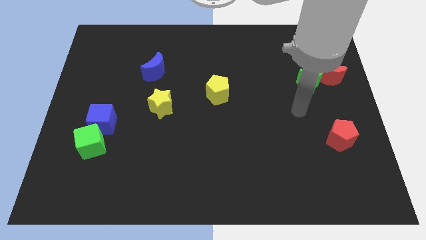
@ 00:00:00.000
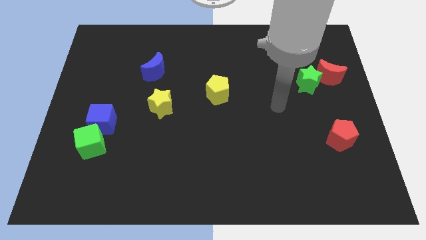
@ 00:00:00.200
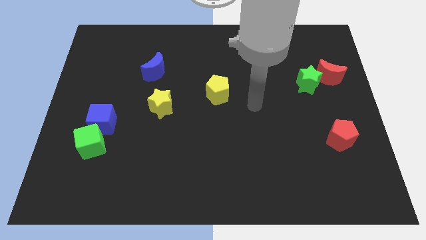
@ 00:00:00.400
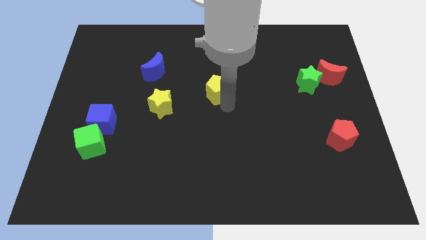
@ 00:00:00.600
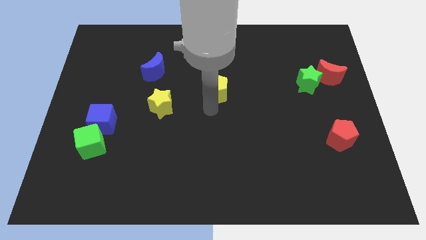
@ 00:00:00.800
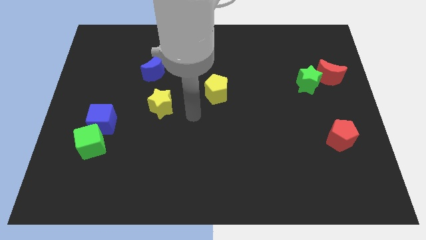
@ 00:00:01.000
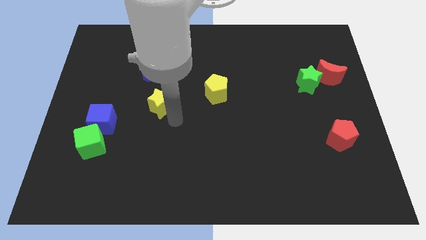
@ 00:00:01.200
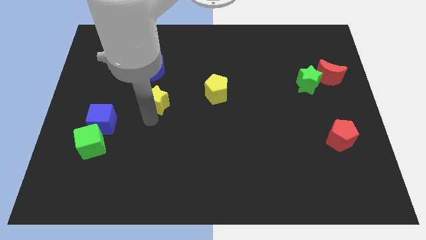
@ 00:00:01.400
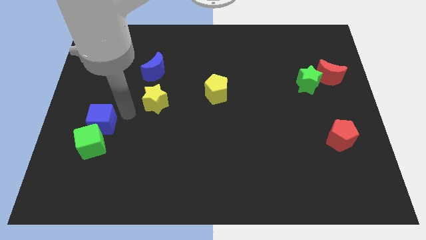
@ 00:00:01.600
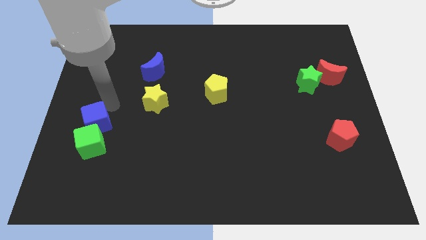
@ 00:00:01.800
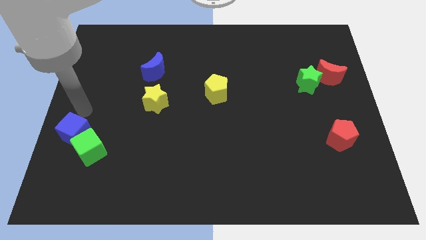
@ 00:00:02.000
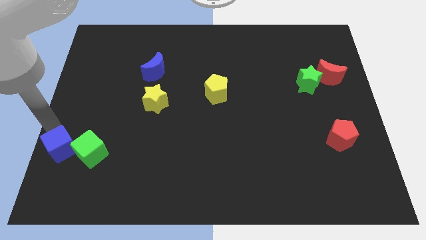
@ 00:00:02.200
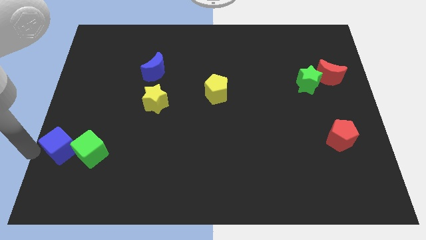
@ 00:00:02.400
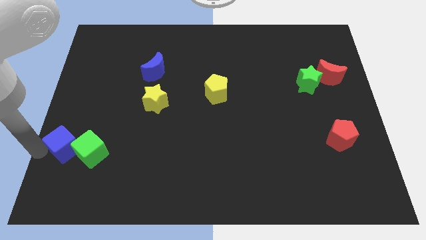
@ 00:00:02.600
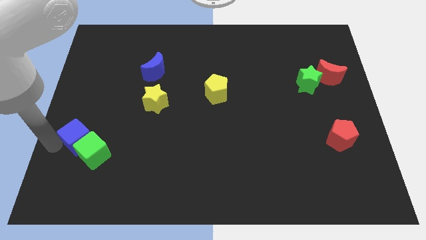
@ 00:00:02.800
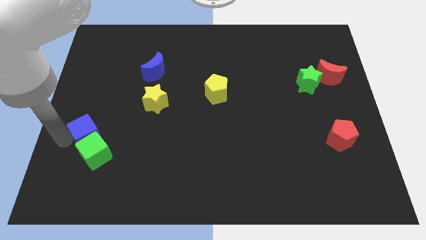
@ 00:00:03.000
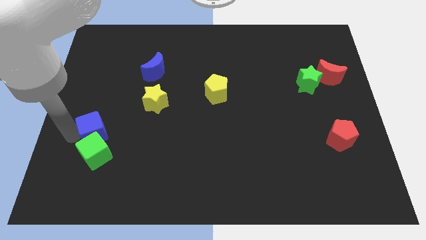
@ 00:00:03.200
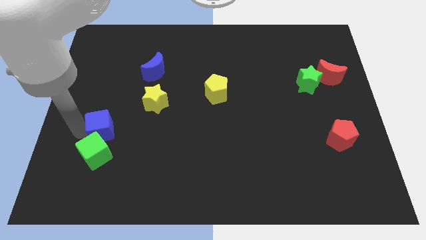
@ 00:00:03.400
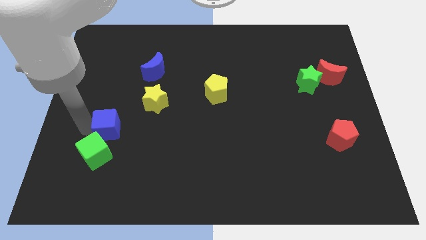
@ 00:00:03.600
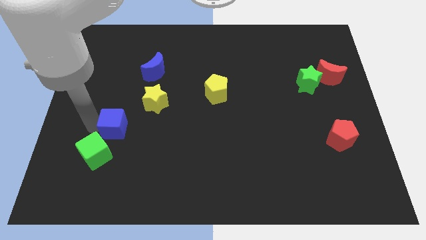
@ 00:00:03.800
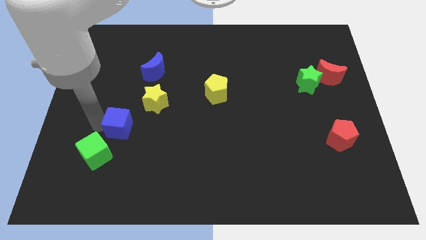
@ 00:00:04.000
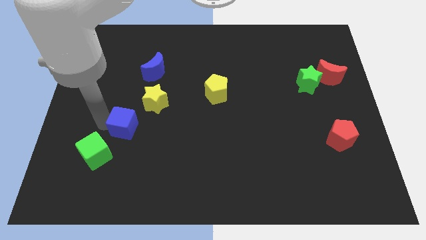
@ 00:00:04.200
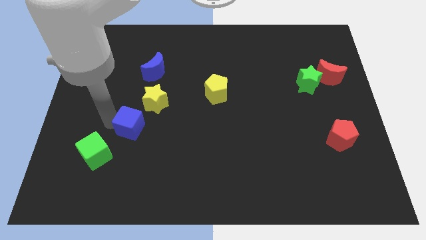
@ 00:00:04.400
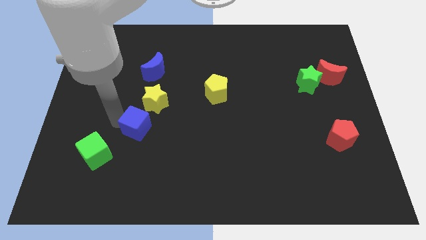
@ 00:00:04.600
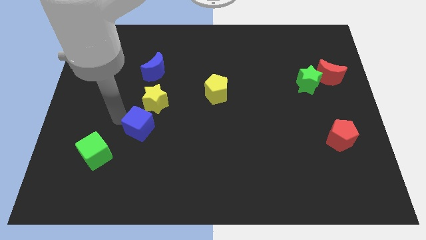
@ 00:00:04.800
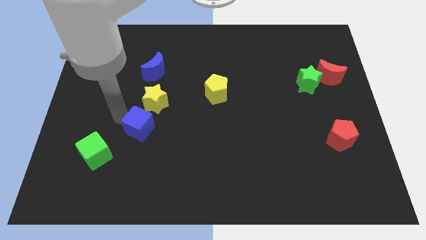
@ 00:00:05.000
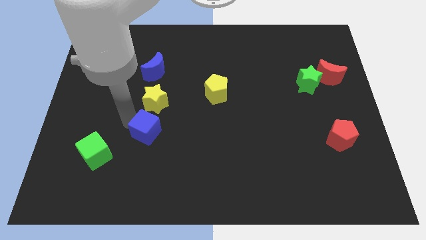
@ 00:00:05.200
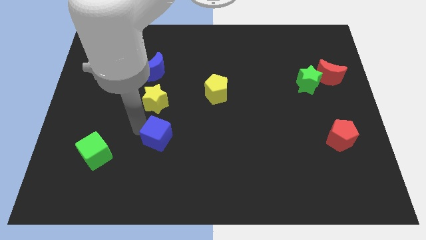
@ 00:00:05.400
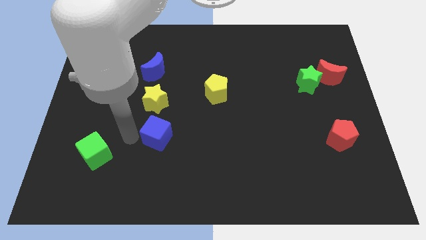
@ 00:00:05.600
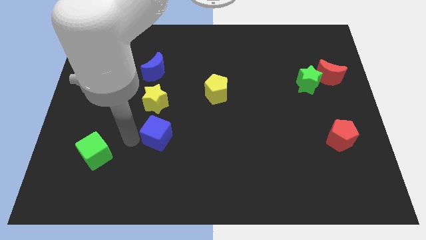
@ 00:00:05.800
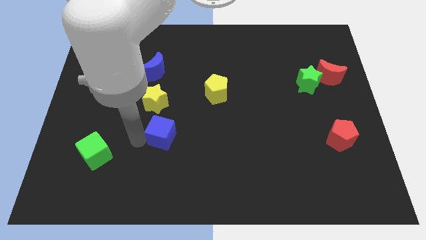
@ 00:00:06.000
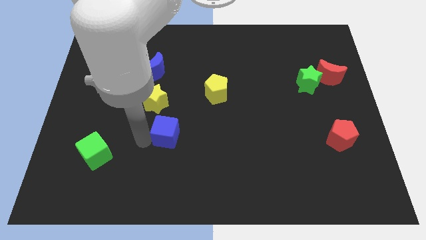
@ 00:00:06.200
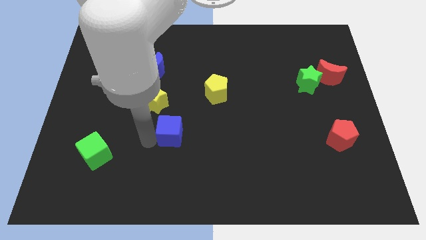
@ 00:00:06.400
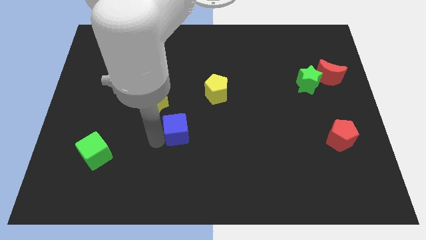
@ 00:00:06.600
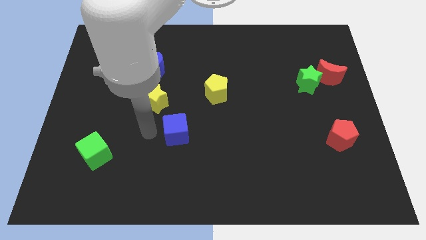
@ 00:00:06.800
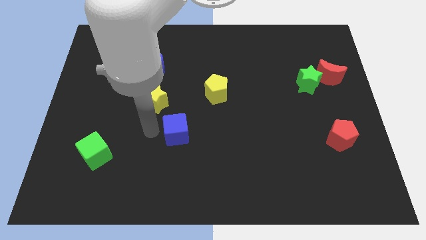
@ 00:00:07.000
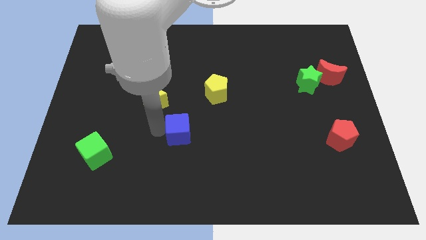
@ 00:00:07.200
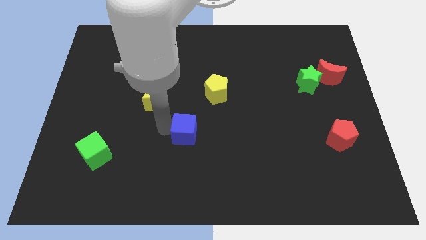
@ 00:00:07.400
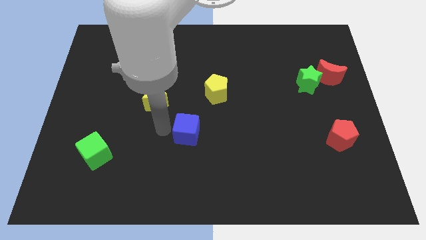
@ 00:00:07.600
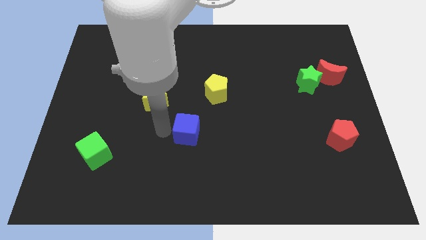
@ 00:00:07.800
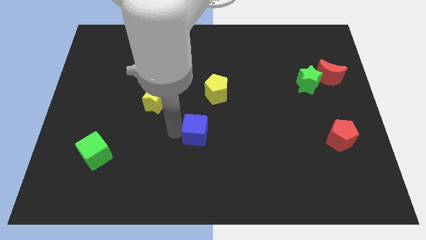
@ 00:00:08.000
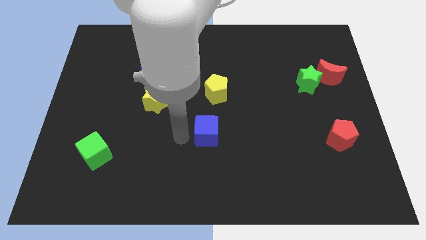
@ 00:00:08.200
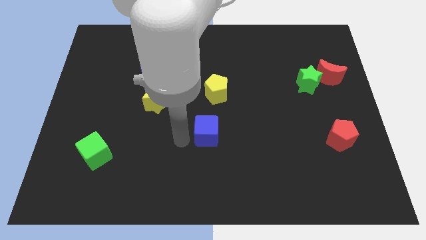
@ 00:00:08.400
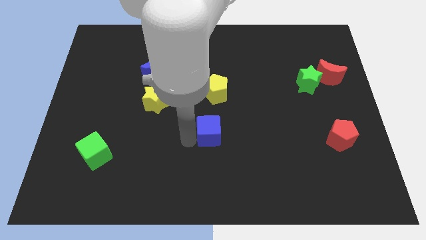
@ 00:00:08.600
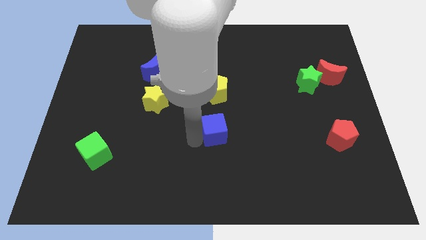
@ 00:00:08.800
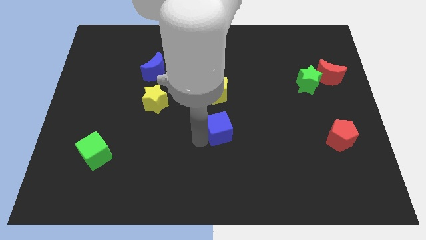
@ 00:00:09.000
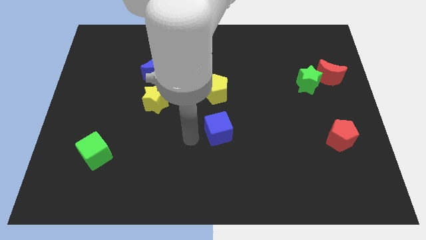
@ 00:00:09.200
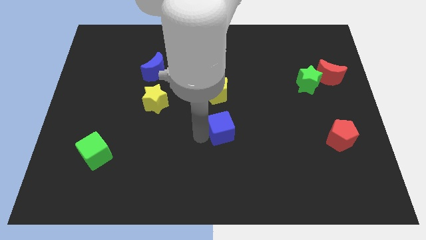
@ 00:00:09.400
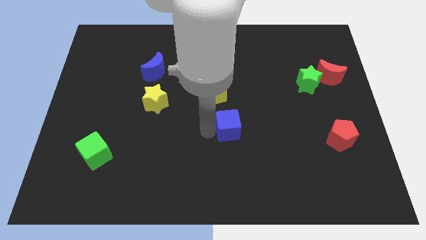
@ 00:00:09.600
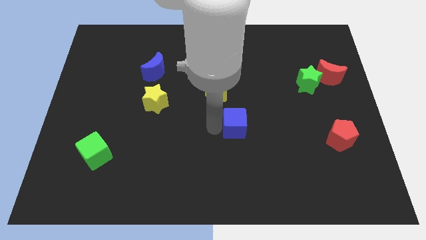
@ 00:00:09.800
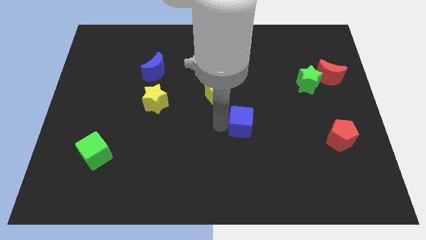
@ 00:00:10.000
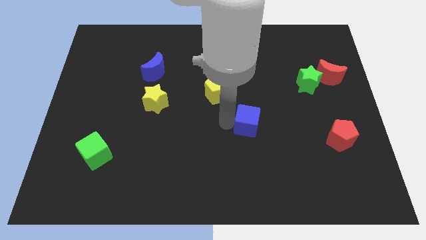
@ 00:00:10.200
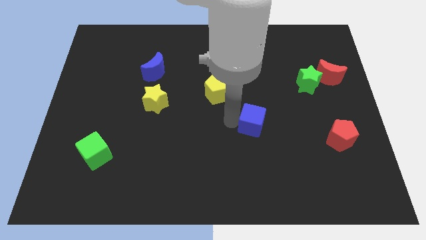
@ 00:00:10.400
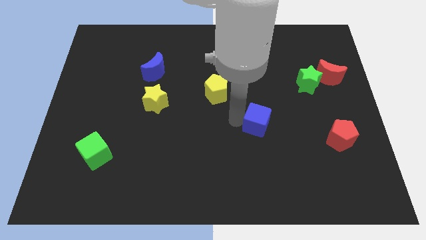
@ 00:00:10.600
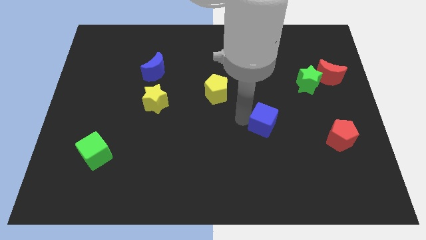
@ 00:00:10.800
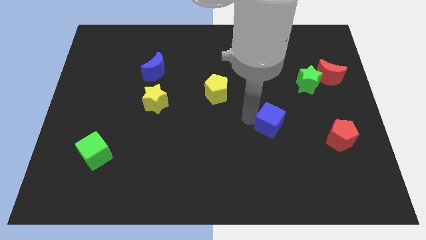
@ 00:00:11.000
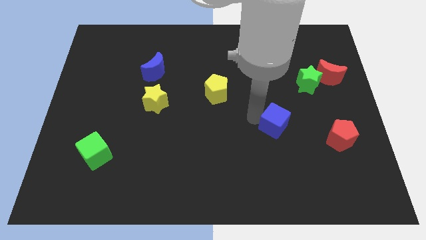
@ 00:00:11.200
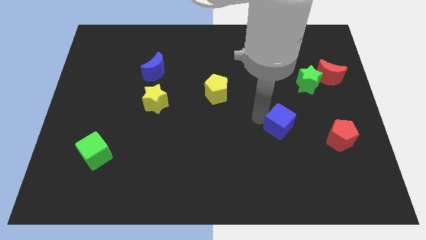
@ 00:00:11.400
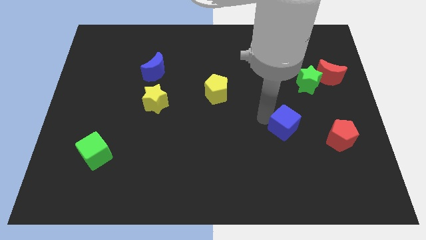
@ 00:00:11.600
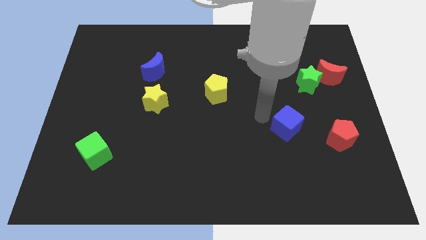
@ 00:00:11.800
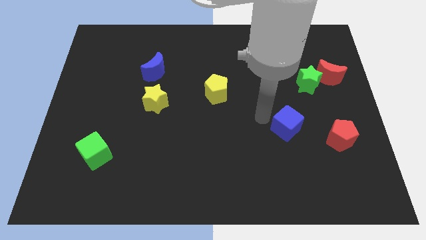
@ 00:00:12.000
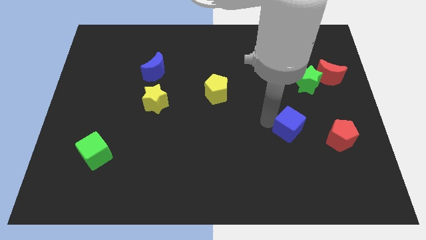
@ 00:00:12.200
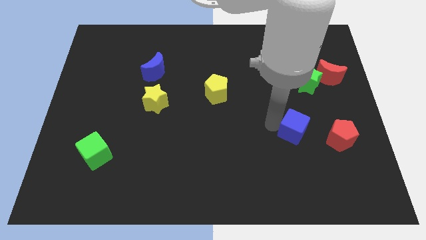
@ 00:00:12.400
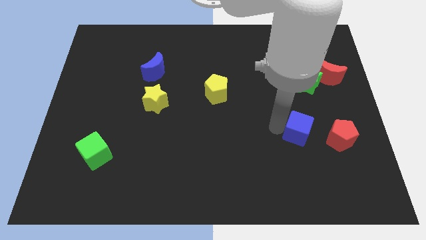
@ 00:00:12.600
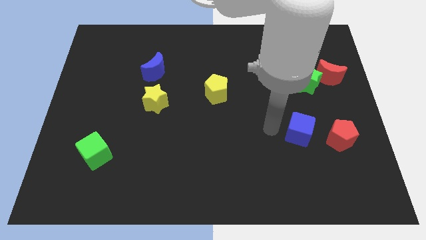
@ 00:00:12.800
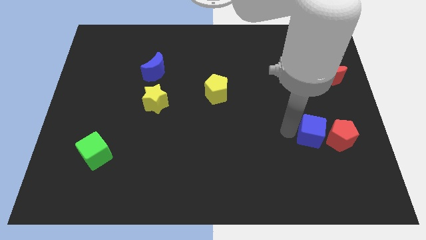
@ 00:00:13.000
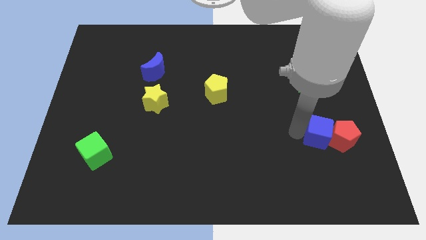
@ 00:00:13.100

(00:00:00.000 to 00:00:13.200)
slide the blue cube next to the red pentagon

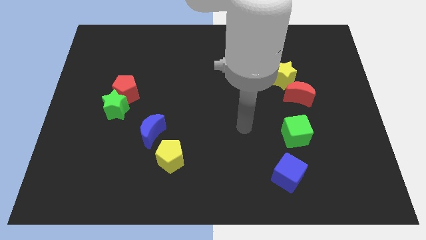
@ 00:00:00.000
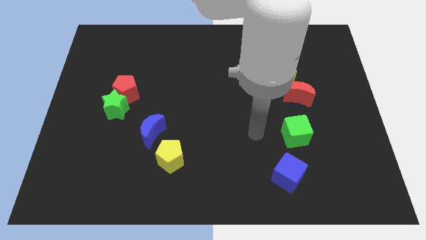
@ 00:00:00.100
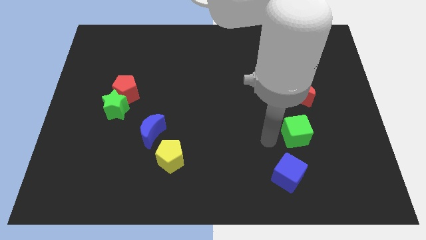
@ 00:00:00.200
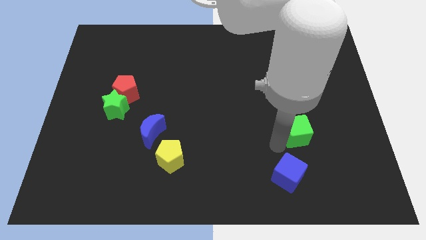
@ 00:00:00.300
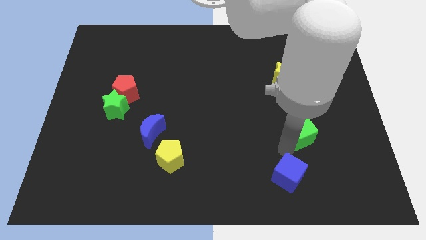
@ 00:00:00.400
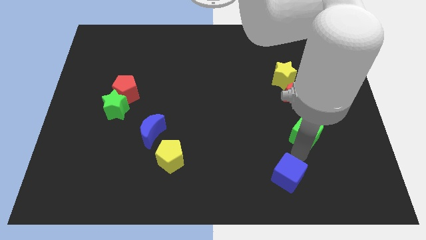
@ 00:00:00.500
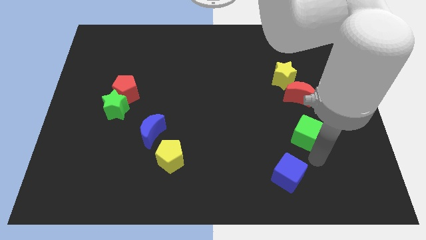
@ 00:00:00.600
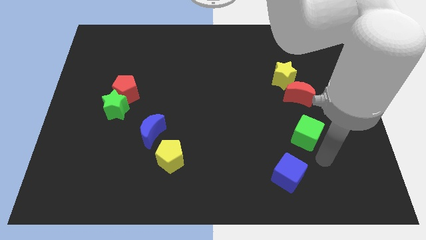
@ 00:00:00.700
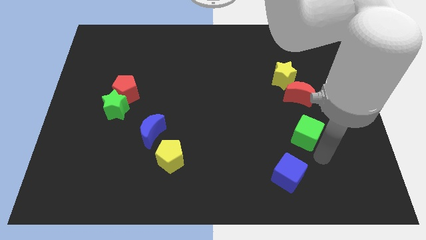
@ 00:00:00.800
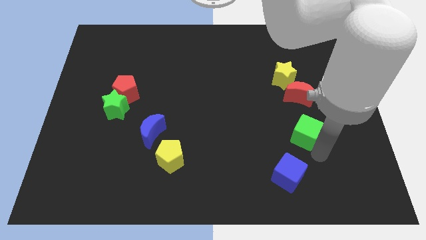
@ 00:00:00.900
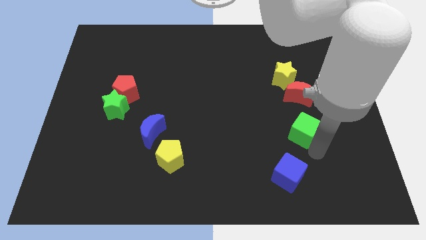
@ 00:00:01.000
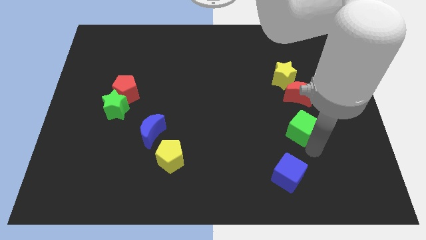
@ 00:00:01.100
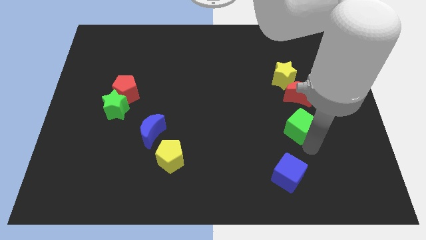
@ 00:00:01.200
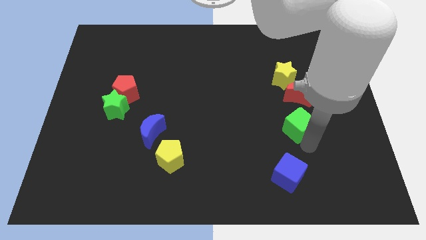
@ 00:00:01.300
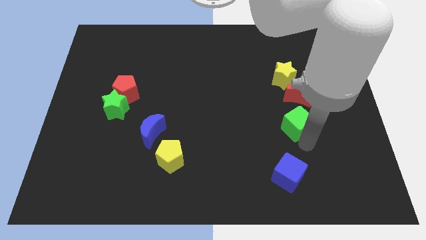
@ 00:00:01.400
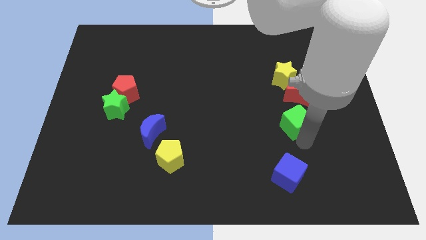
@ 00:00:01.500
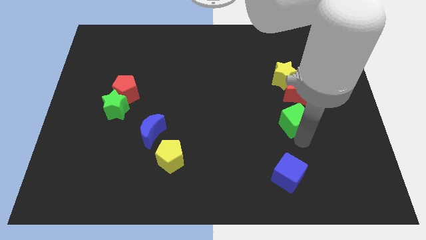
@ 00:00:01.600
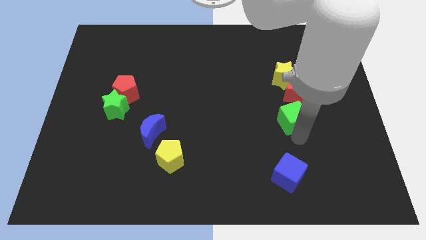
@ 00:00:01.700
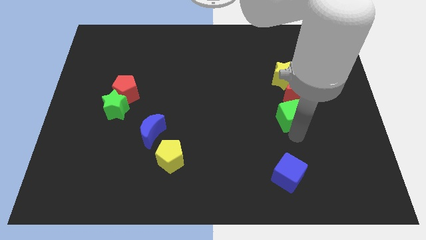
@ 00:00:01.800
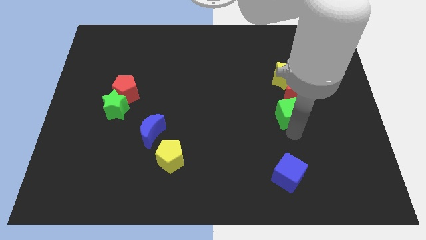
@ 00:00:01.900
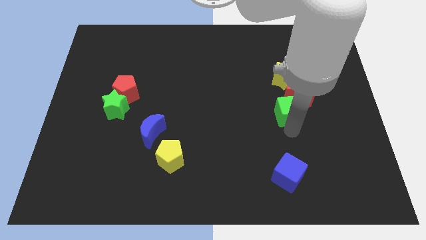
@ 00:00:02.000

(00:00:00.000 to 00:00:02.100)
put the green cube to the red moon
